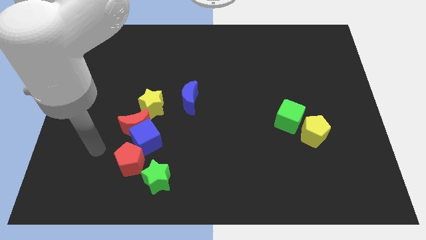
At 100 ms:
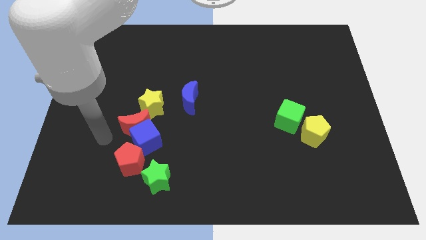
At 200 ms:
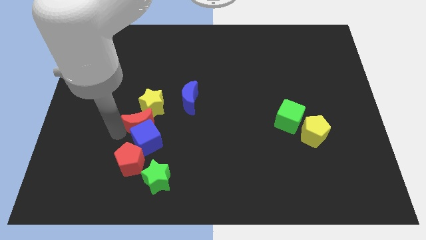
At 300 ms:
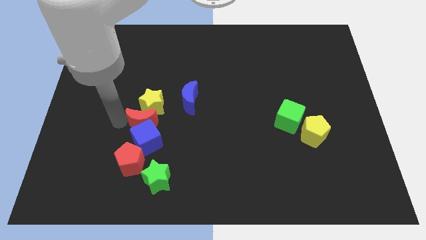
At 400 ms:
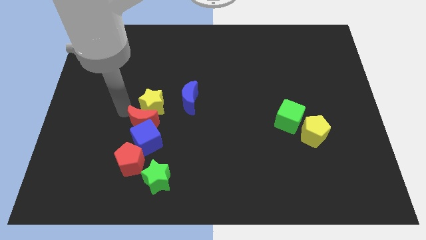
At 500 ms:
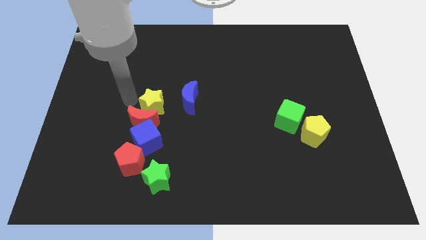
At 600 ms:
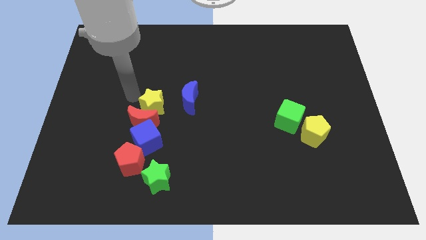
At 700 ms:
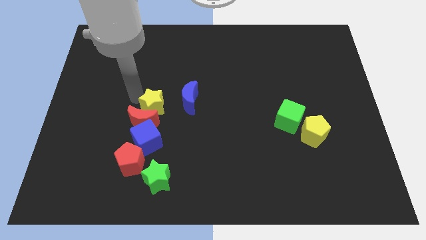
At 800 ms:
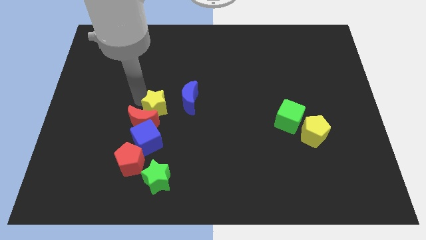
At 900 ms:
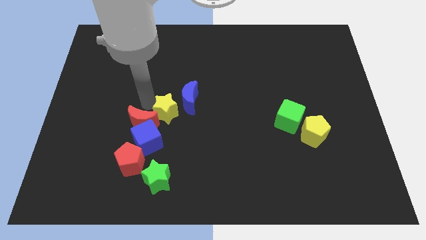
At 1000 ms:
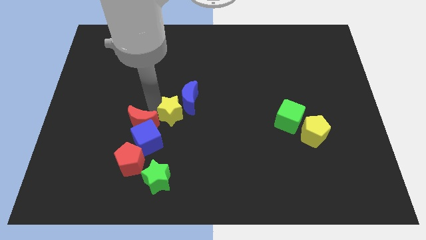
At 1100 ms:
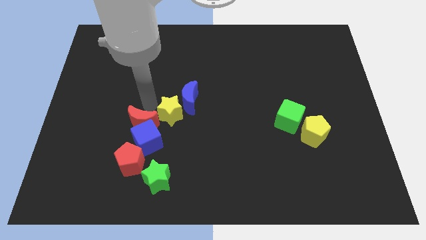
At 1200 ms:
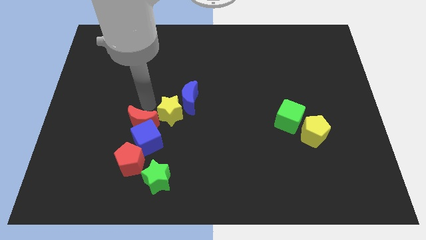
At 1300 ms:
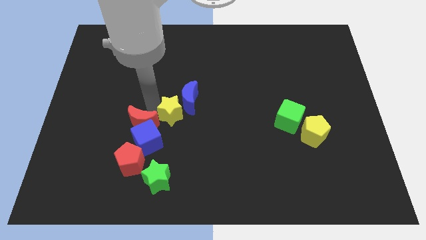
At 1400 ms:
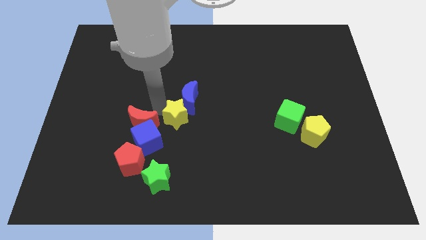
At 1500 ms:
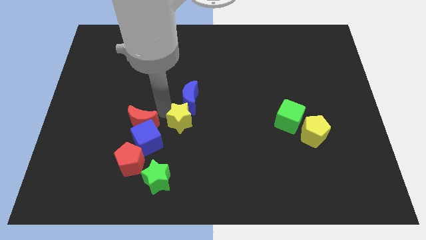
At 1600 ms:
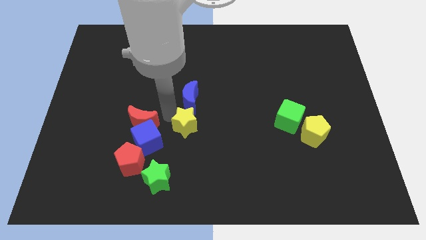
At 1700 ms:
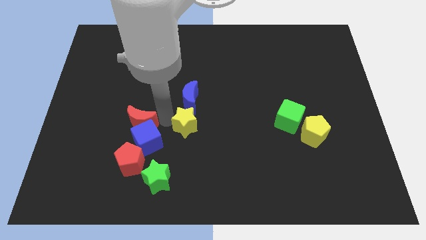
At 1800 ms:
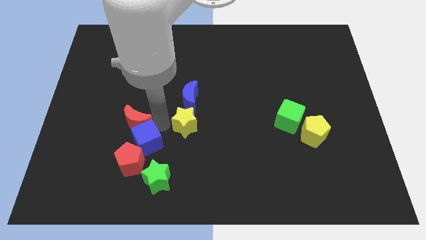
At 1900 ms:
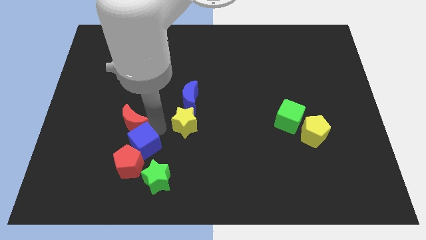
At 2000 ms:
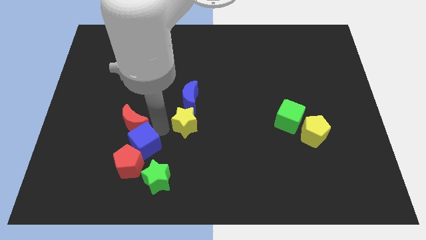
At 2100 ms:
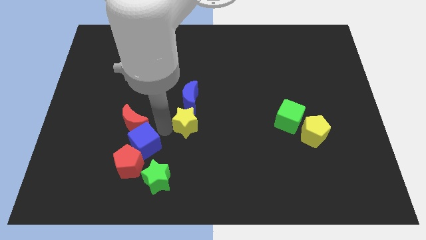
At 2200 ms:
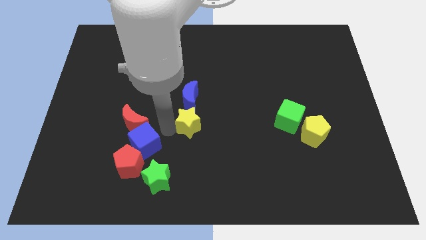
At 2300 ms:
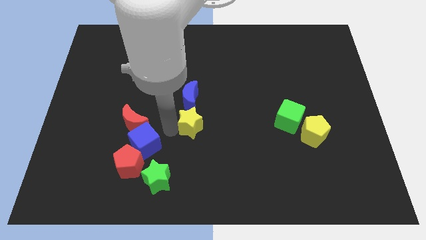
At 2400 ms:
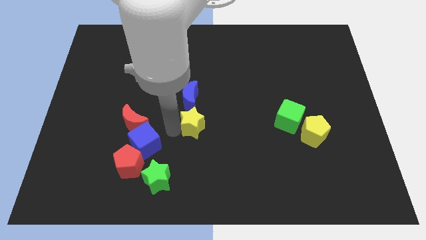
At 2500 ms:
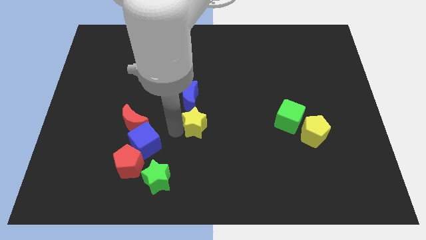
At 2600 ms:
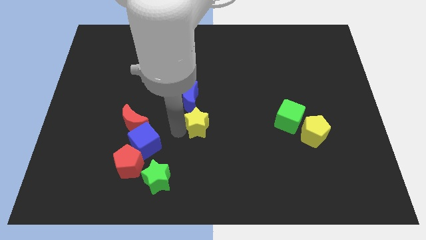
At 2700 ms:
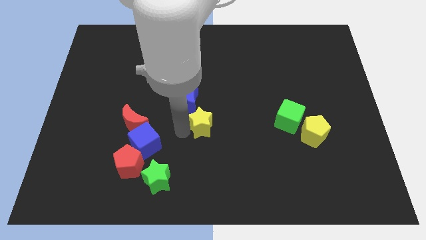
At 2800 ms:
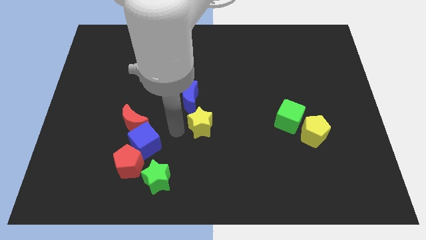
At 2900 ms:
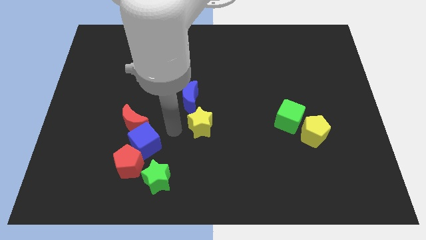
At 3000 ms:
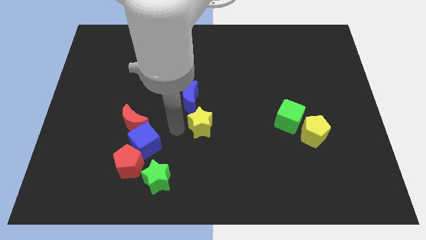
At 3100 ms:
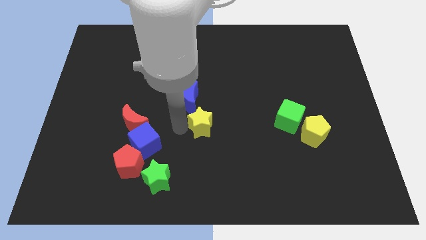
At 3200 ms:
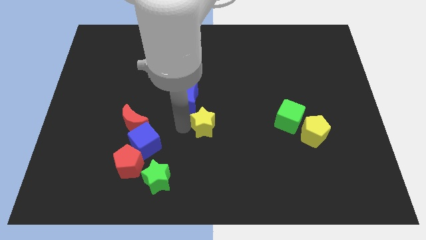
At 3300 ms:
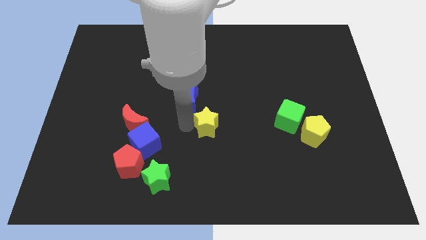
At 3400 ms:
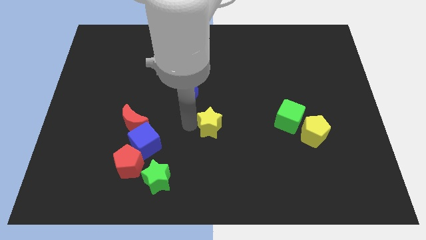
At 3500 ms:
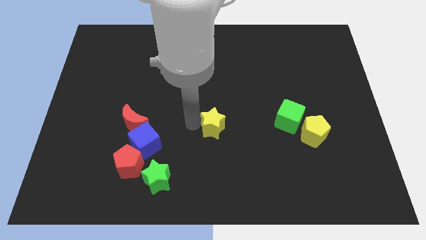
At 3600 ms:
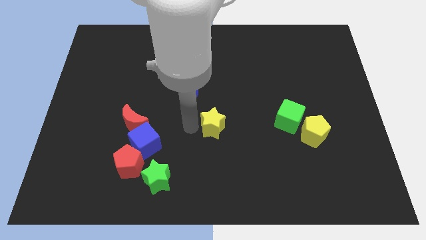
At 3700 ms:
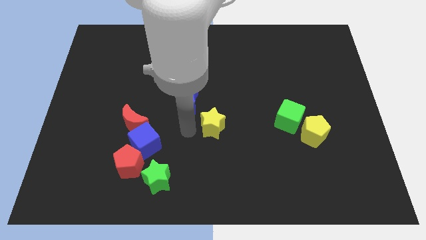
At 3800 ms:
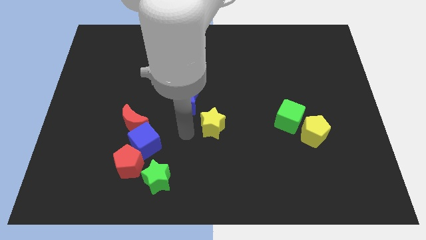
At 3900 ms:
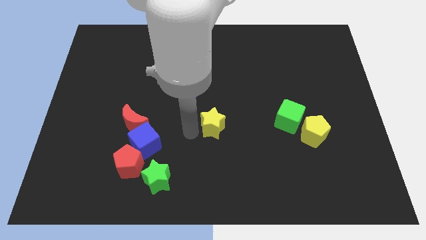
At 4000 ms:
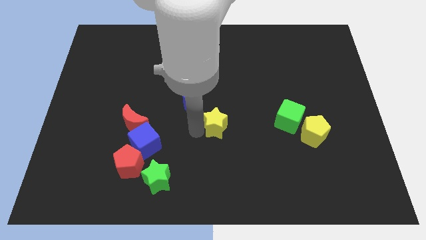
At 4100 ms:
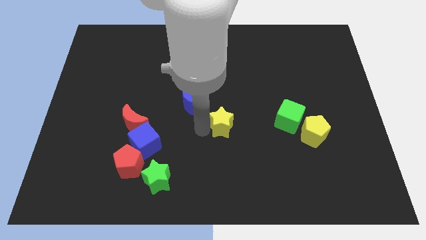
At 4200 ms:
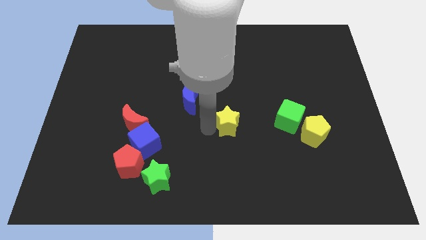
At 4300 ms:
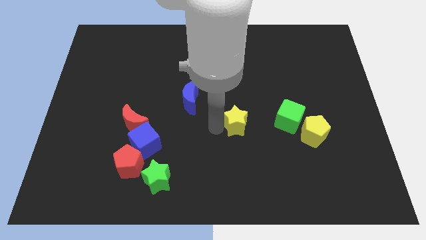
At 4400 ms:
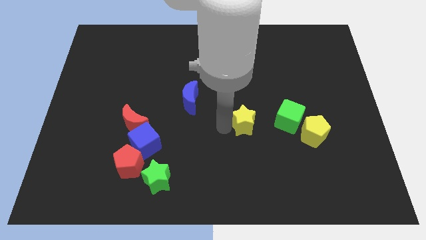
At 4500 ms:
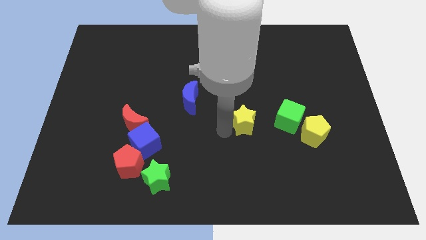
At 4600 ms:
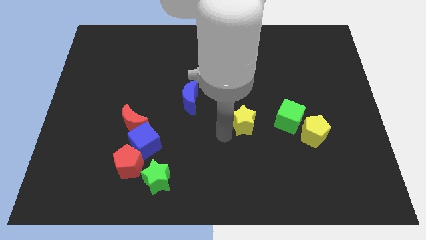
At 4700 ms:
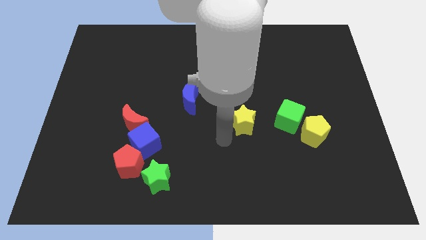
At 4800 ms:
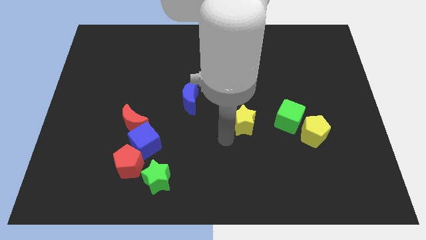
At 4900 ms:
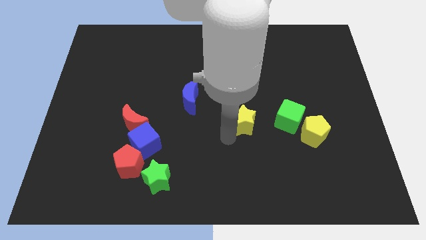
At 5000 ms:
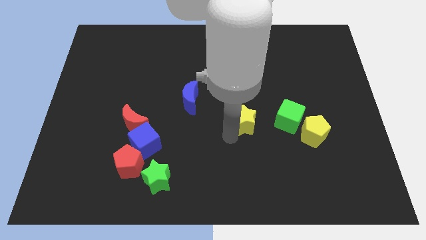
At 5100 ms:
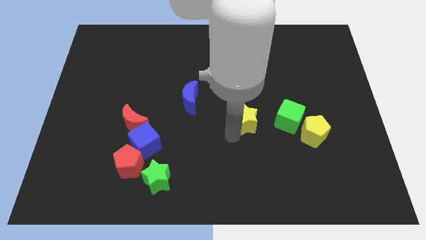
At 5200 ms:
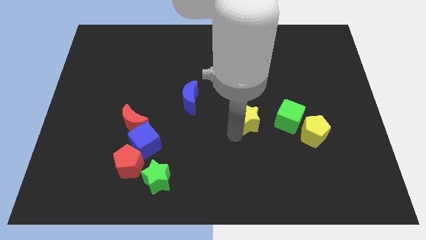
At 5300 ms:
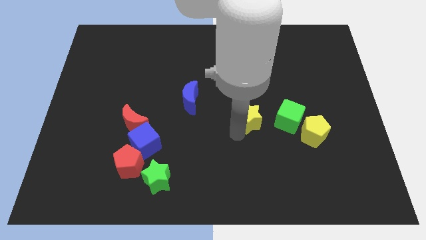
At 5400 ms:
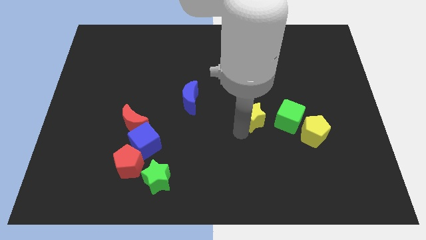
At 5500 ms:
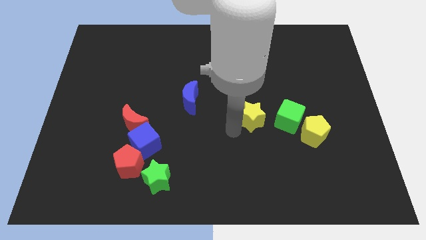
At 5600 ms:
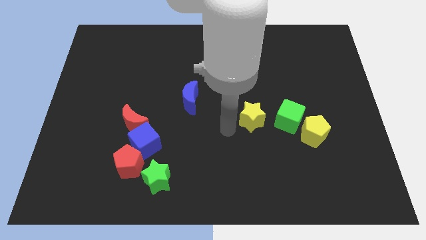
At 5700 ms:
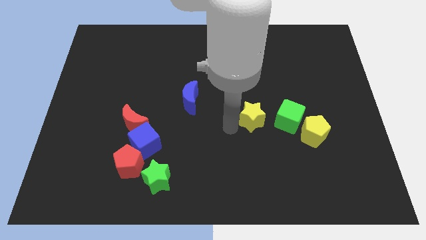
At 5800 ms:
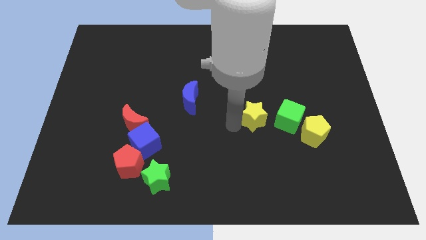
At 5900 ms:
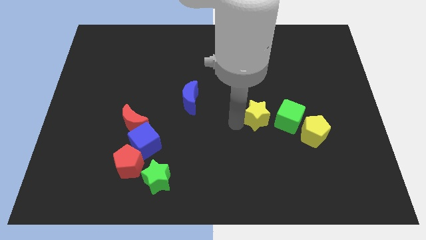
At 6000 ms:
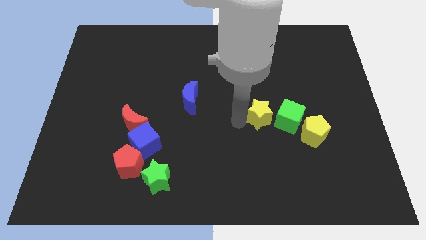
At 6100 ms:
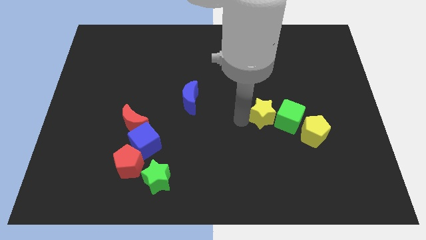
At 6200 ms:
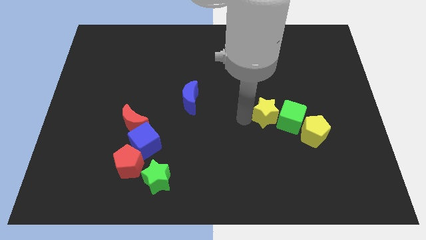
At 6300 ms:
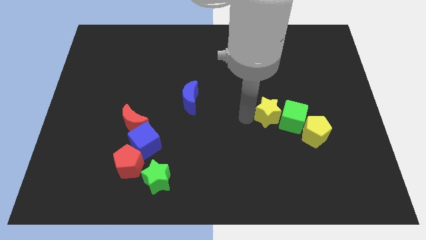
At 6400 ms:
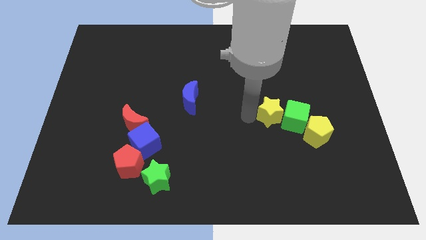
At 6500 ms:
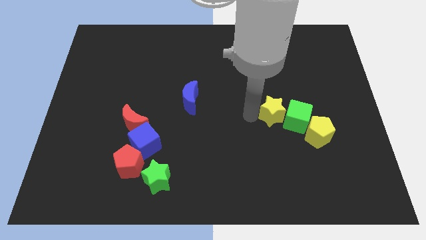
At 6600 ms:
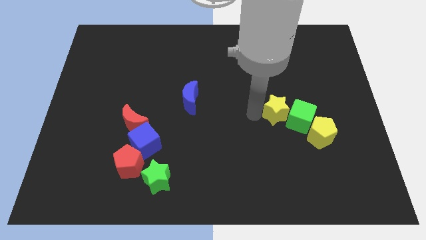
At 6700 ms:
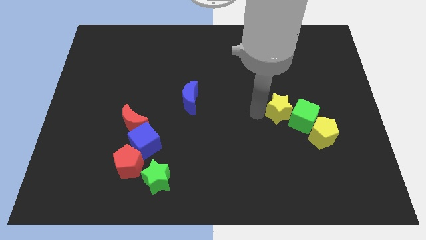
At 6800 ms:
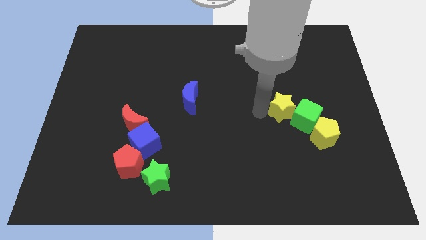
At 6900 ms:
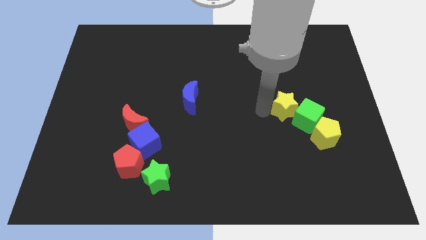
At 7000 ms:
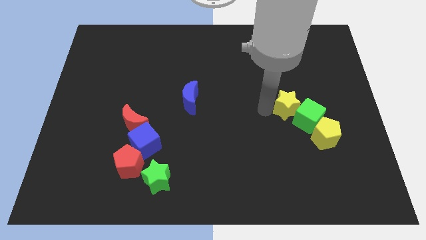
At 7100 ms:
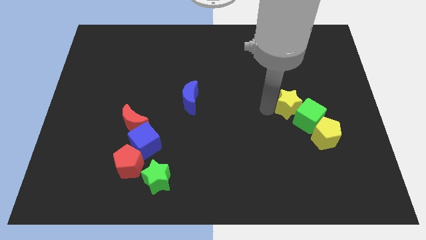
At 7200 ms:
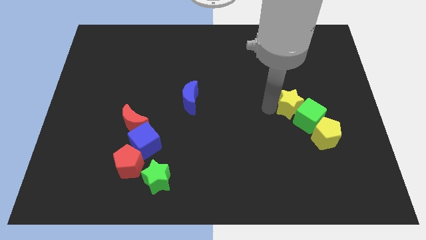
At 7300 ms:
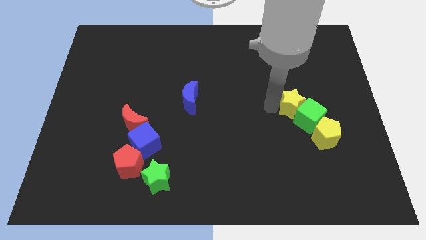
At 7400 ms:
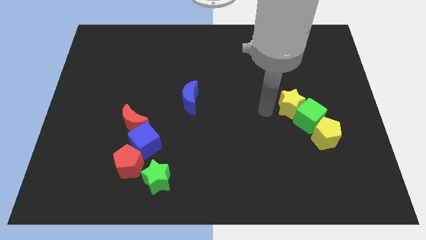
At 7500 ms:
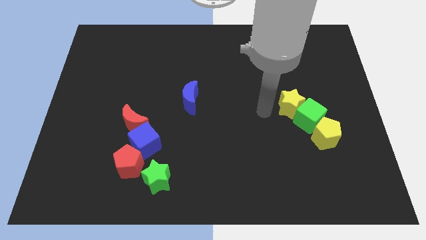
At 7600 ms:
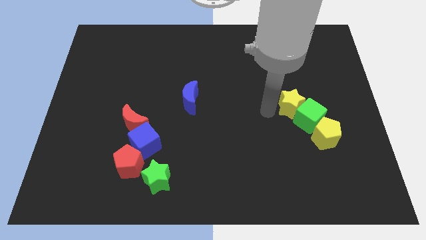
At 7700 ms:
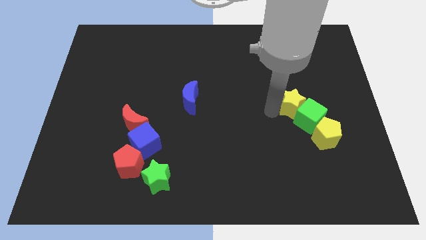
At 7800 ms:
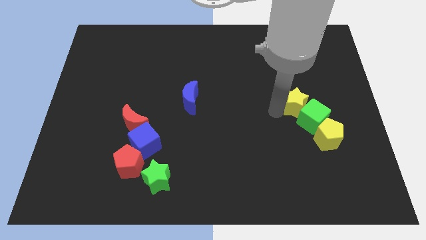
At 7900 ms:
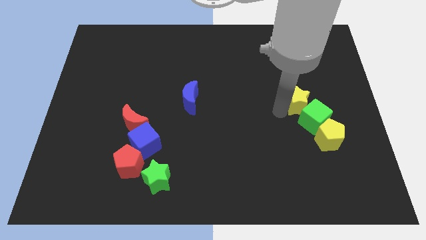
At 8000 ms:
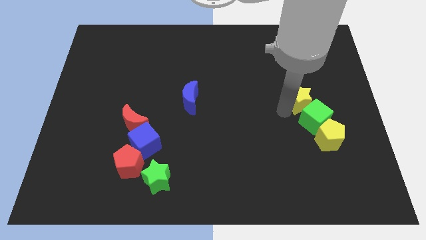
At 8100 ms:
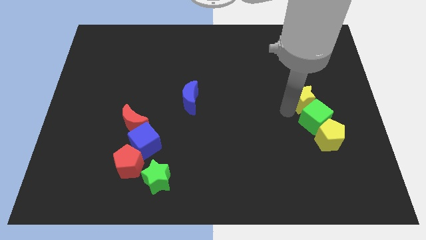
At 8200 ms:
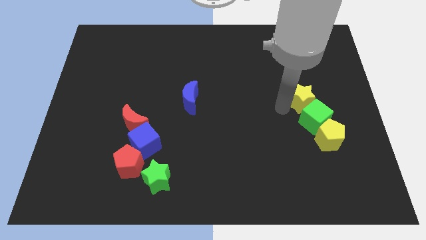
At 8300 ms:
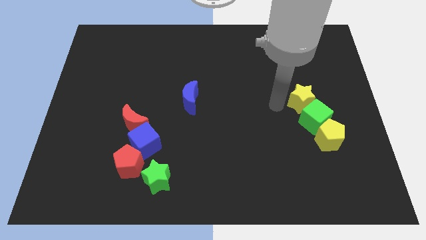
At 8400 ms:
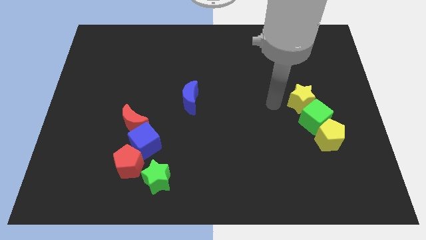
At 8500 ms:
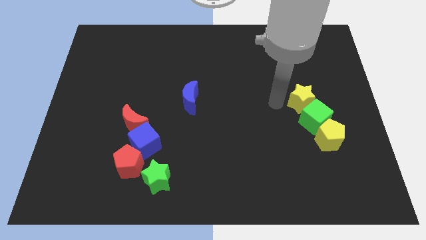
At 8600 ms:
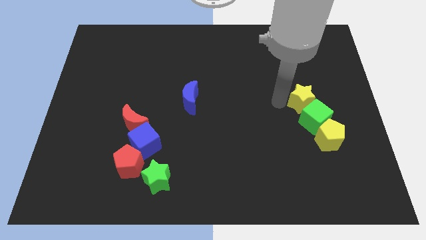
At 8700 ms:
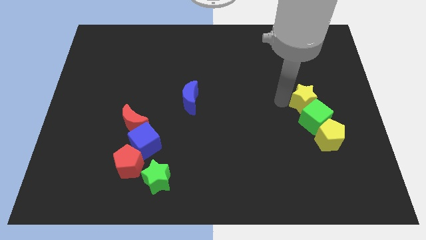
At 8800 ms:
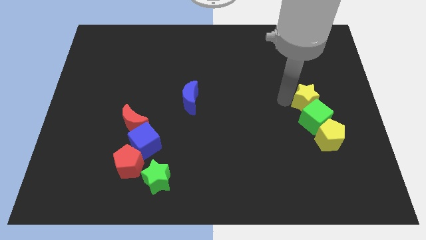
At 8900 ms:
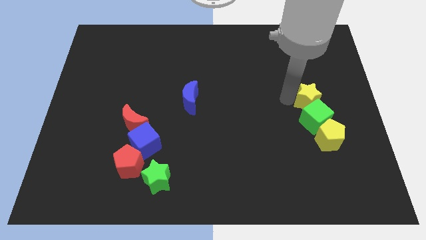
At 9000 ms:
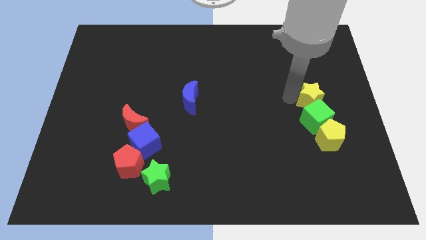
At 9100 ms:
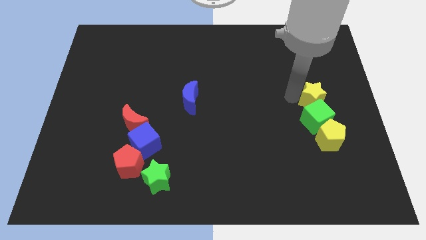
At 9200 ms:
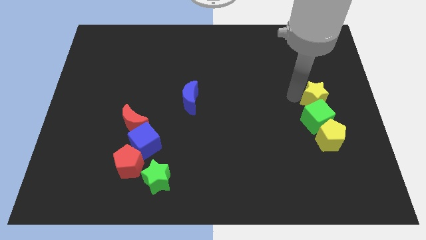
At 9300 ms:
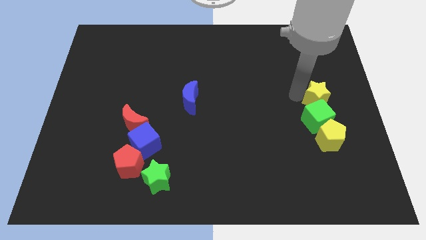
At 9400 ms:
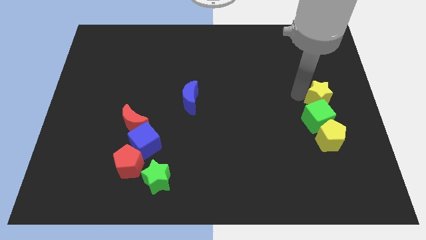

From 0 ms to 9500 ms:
push the yellow star to the center right
